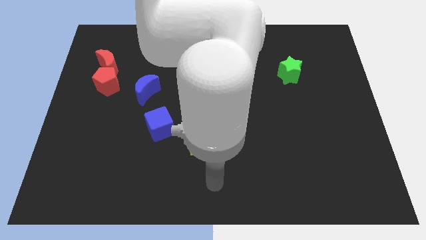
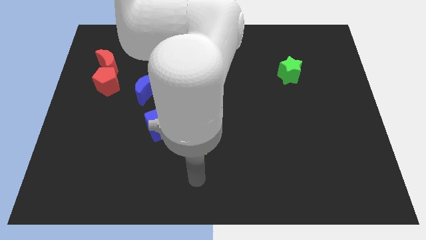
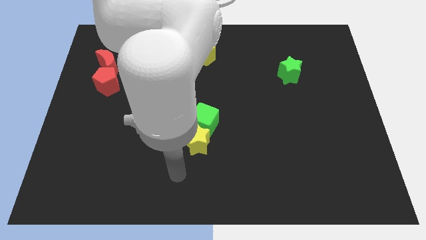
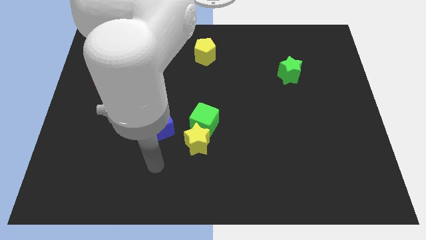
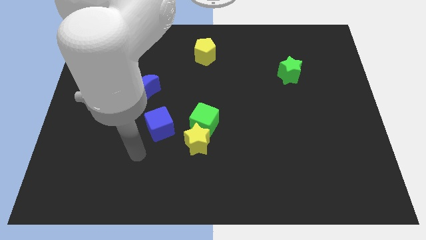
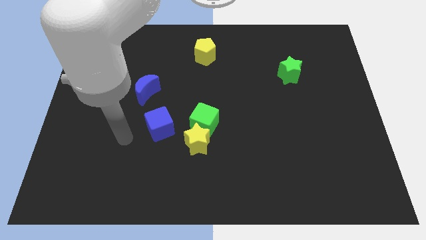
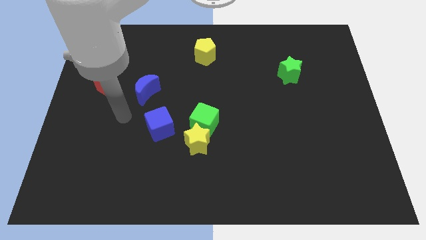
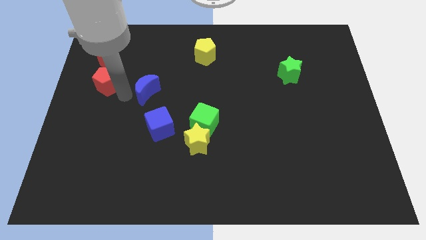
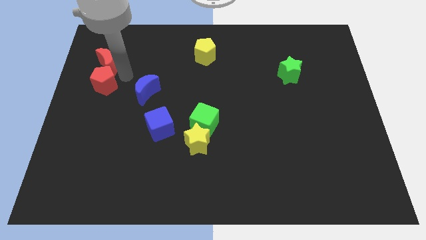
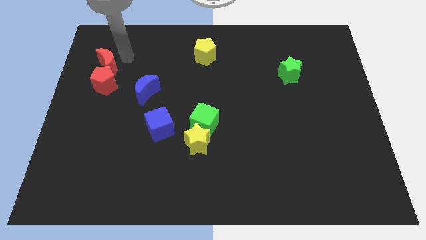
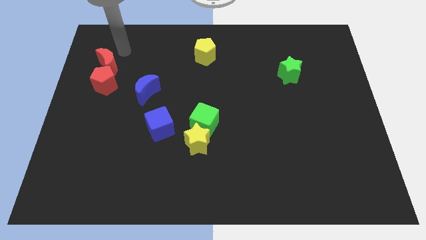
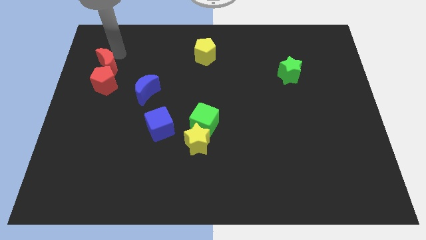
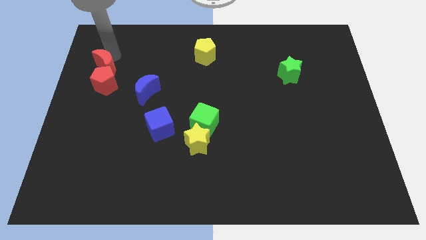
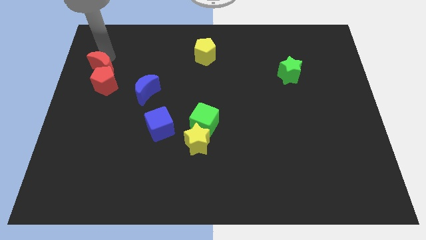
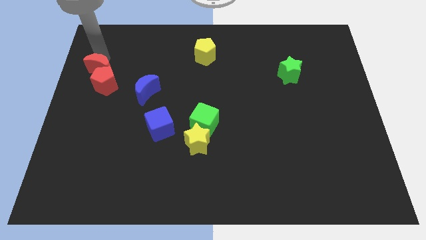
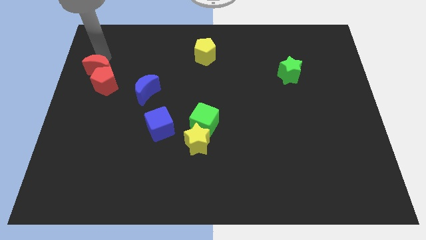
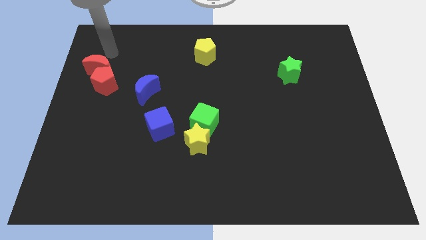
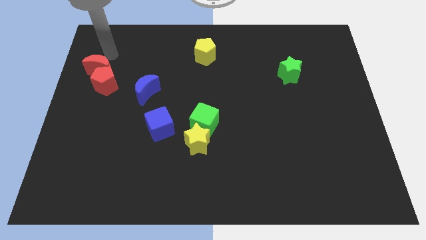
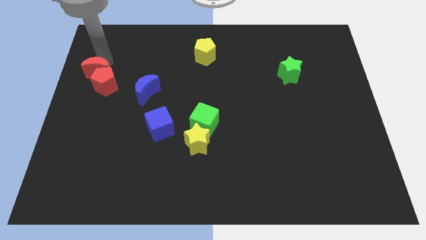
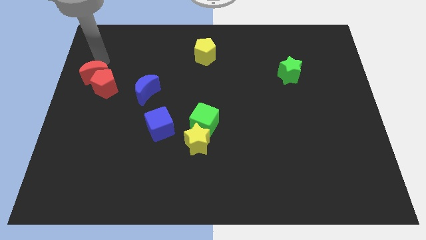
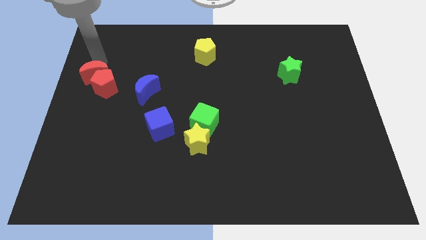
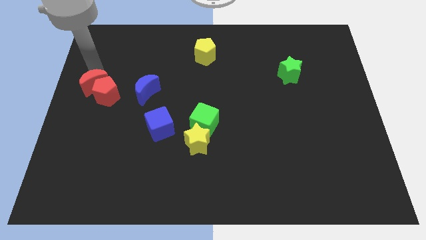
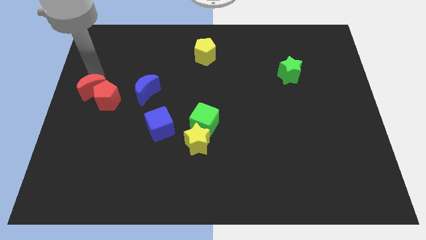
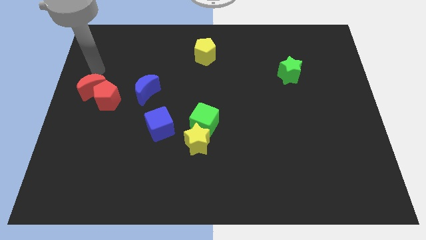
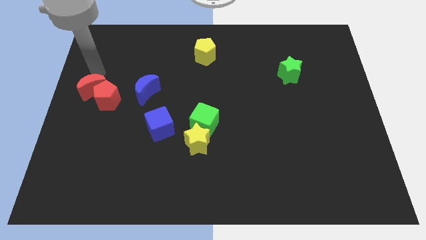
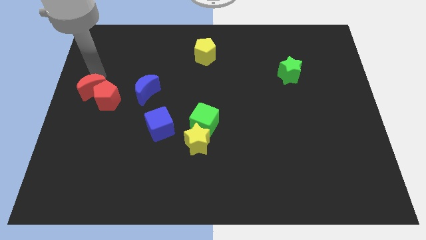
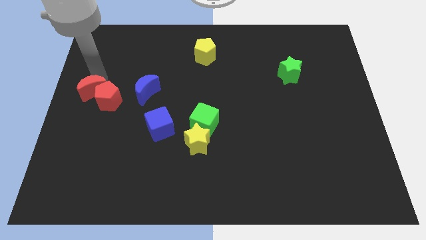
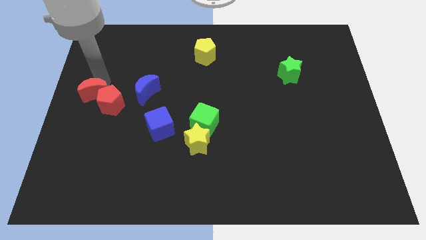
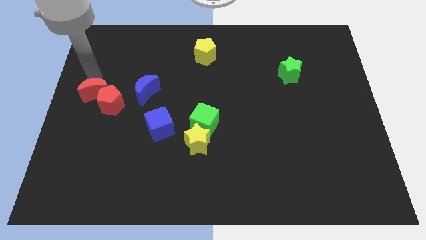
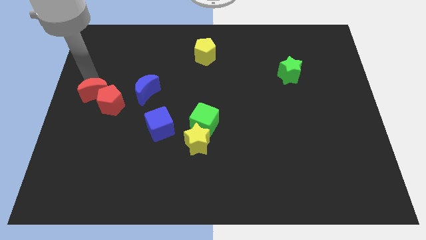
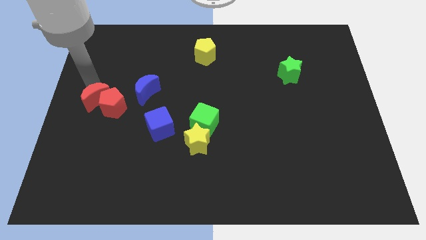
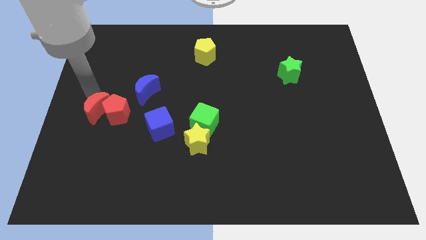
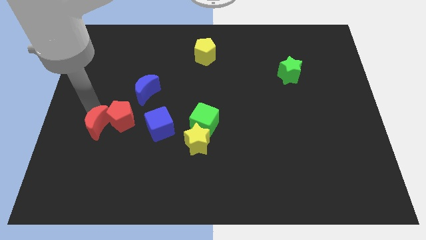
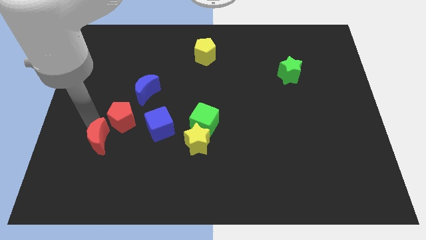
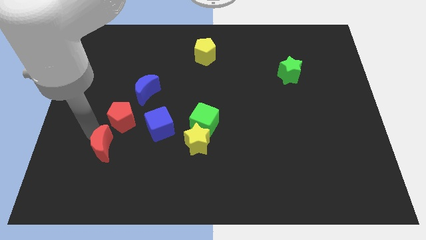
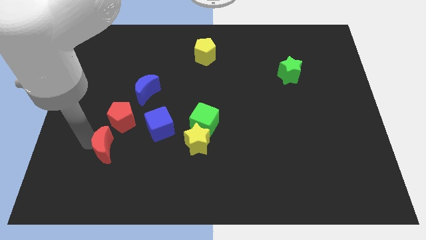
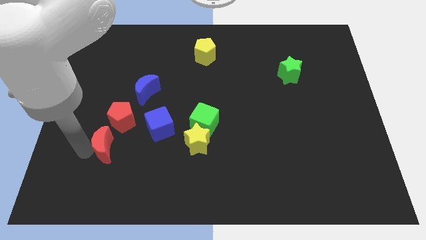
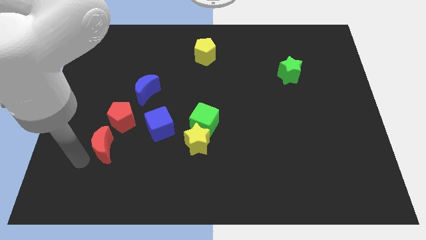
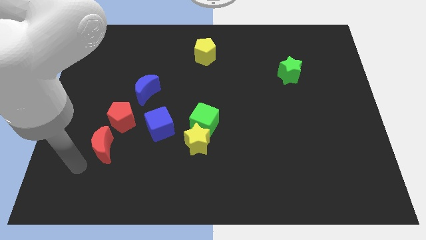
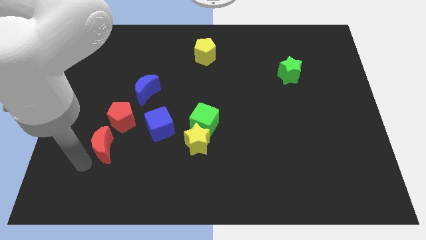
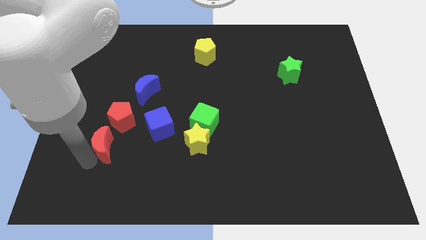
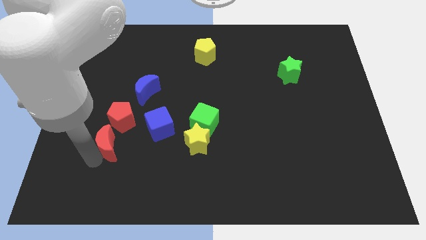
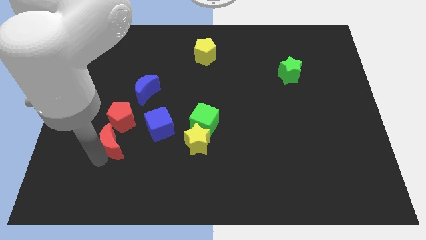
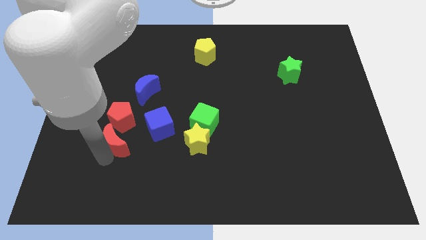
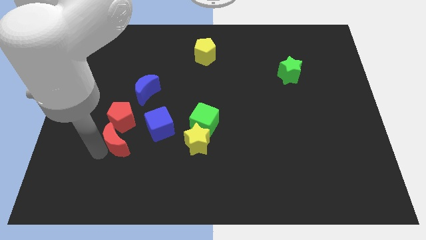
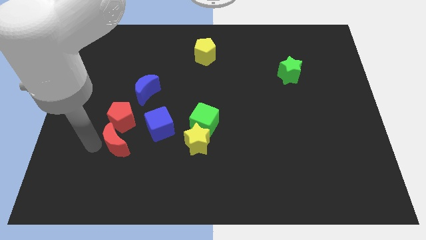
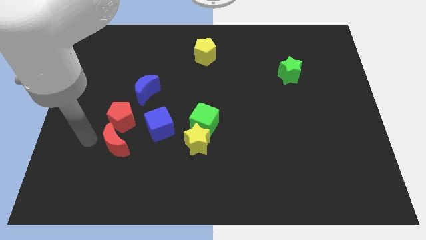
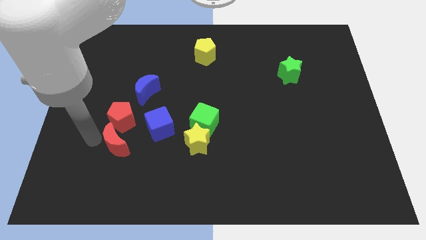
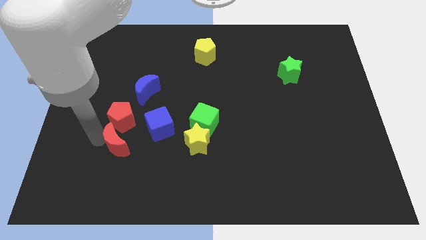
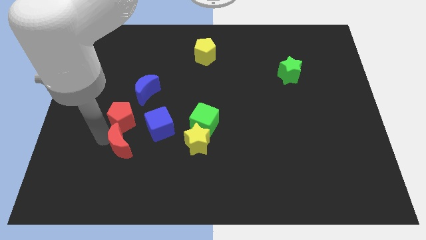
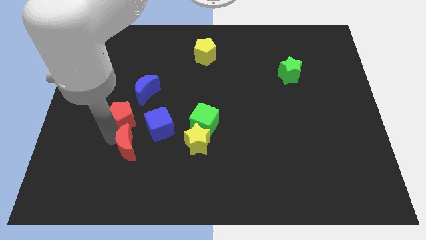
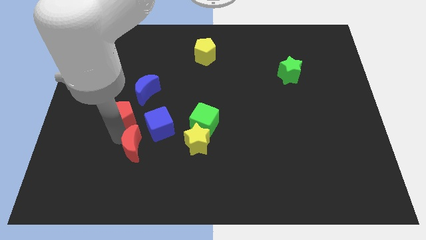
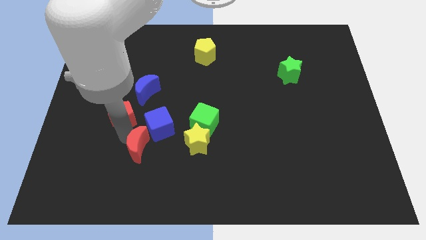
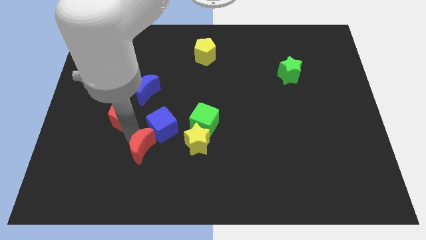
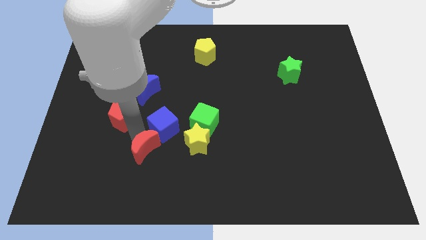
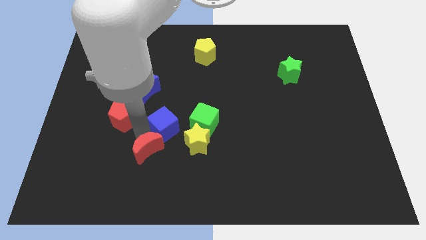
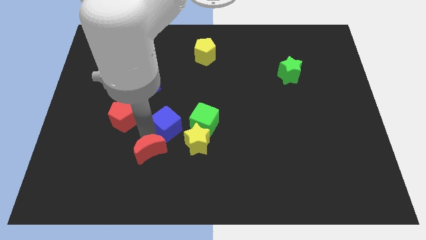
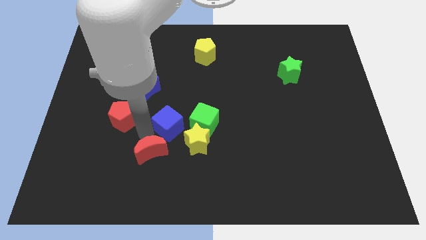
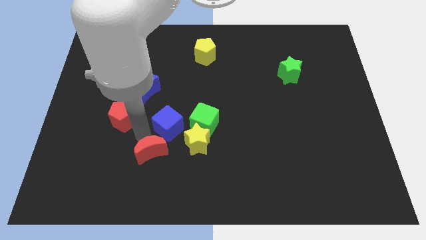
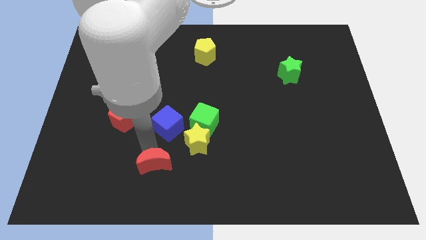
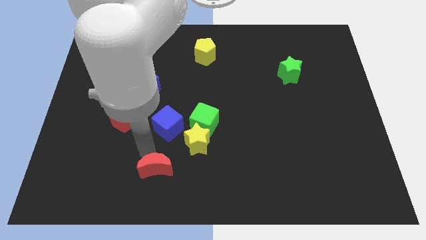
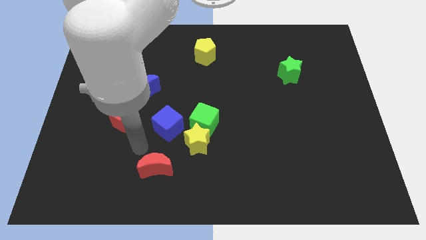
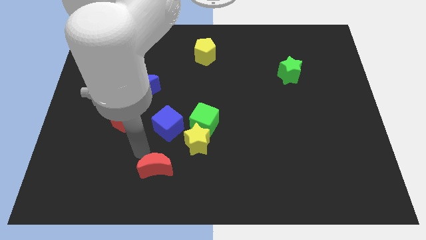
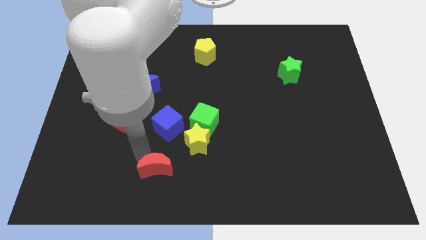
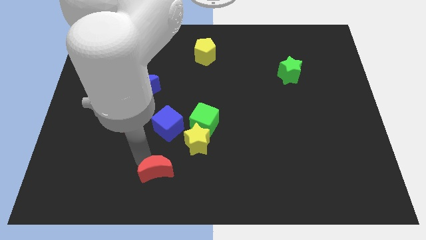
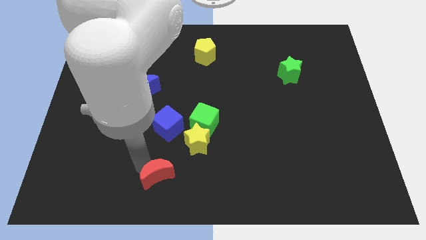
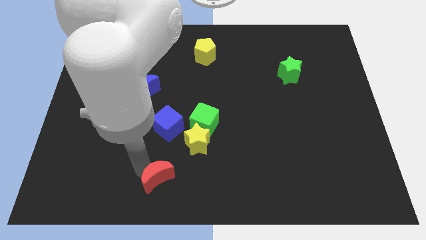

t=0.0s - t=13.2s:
put the red moon to the bottom
